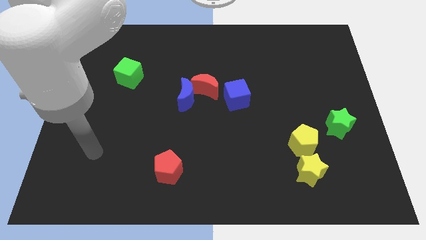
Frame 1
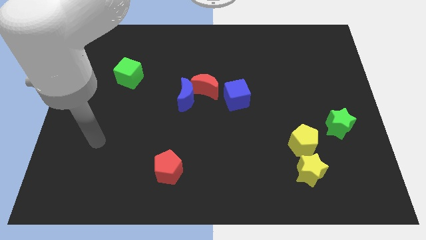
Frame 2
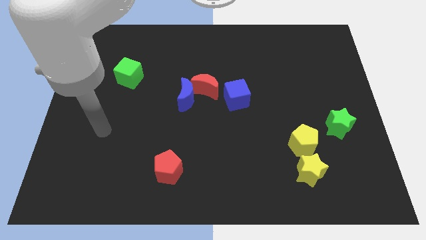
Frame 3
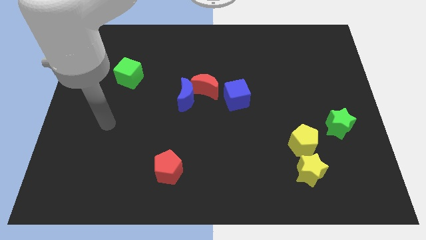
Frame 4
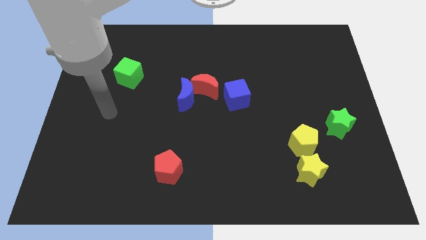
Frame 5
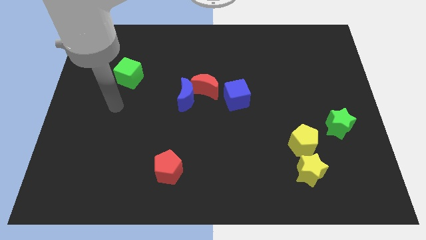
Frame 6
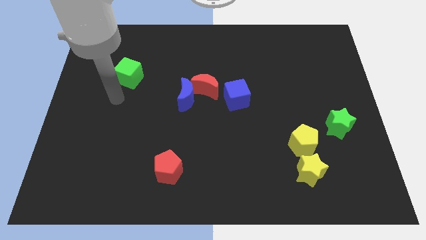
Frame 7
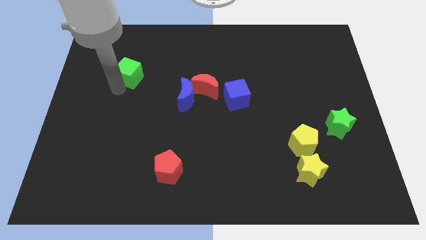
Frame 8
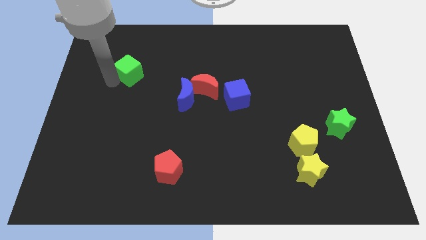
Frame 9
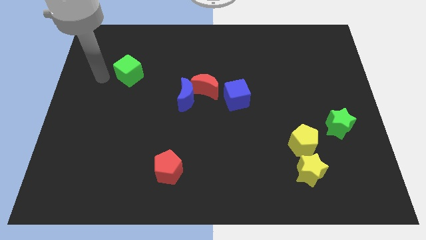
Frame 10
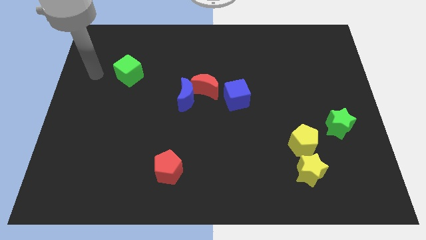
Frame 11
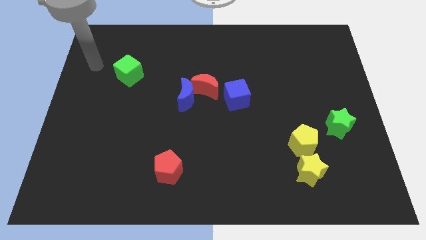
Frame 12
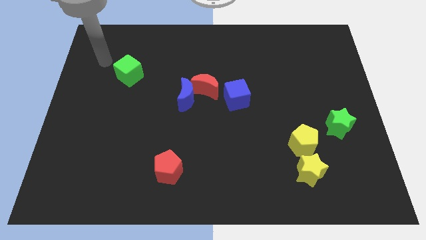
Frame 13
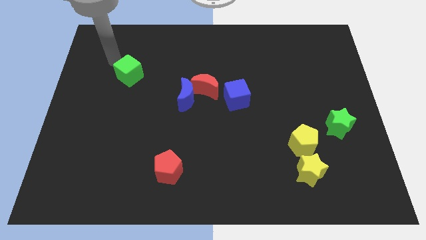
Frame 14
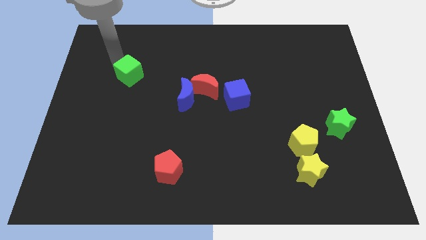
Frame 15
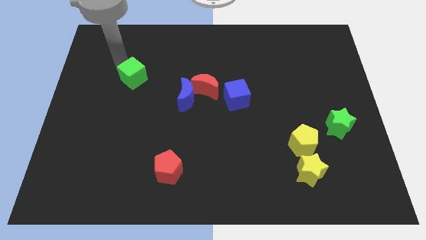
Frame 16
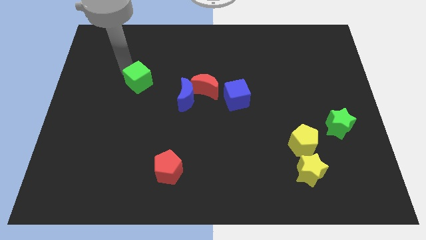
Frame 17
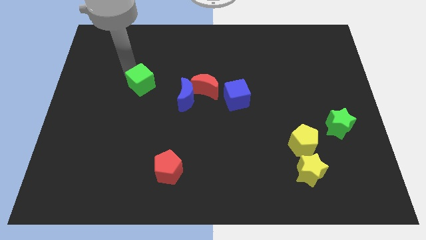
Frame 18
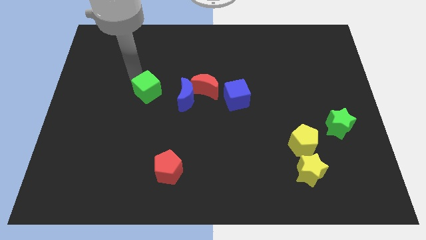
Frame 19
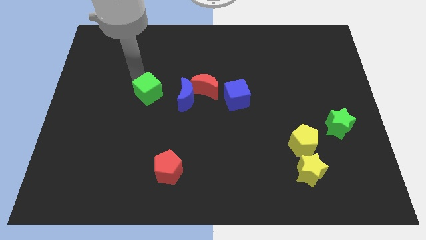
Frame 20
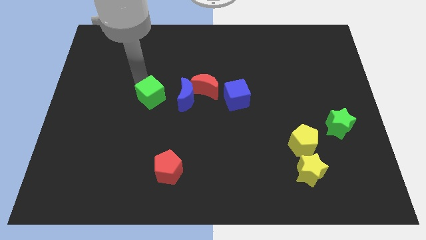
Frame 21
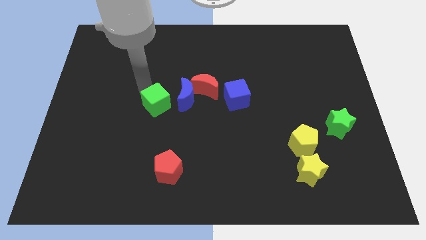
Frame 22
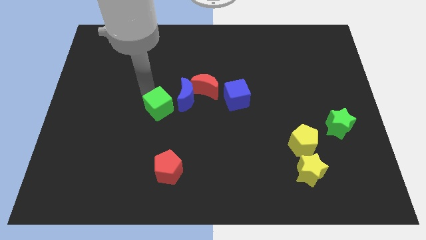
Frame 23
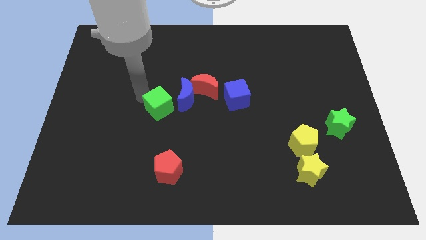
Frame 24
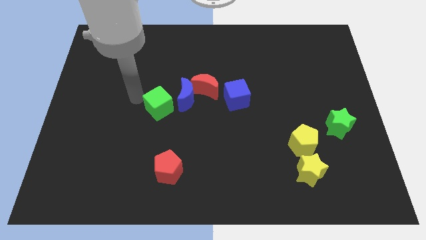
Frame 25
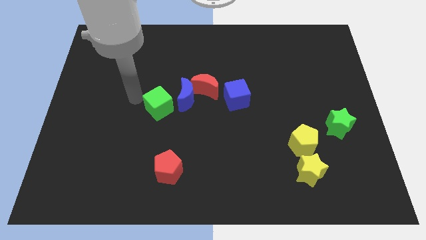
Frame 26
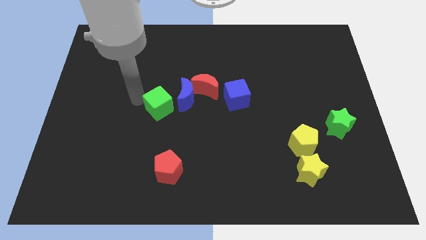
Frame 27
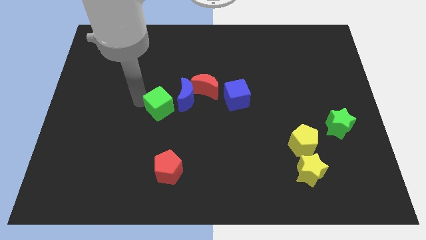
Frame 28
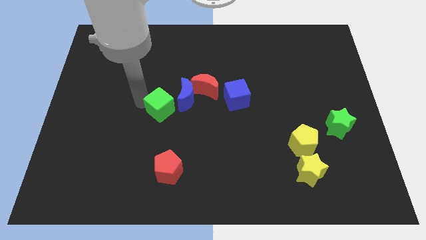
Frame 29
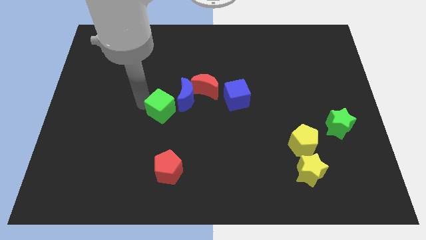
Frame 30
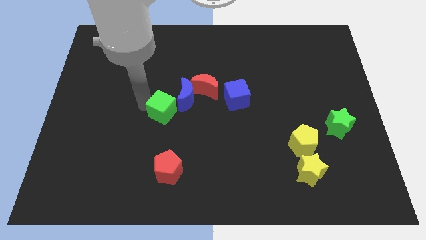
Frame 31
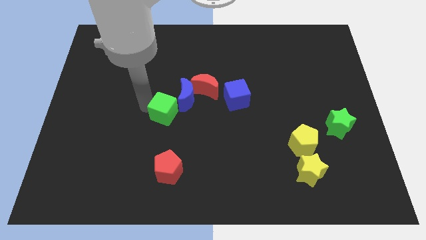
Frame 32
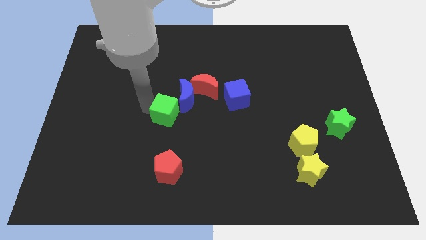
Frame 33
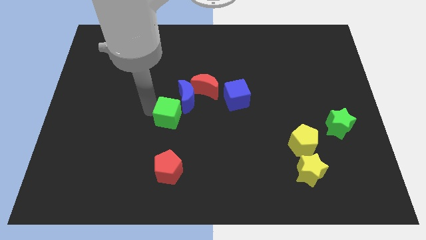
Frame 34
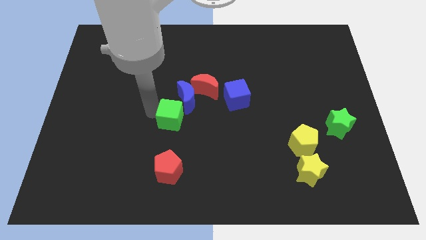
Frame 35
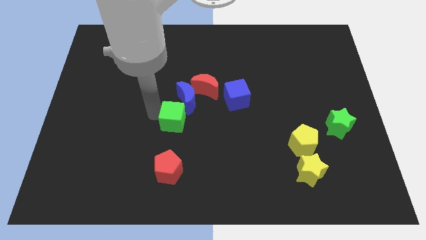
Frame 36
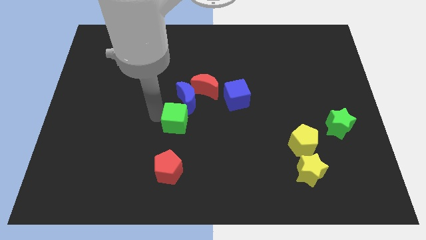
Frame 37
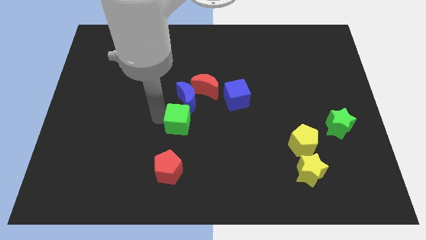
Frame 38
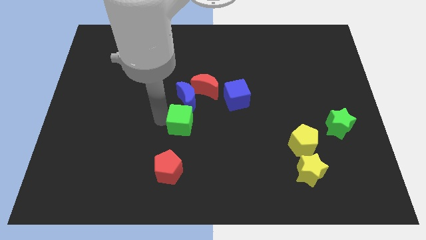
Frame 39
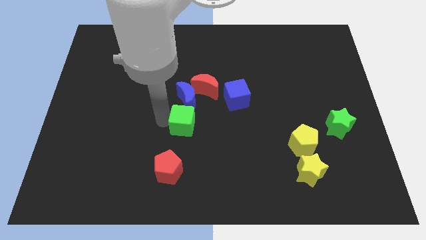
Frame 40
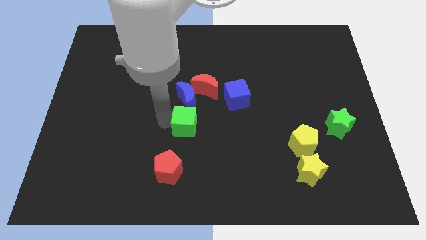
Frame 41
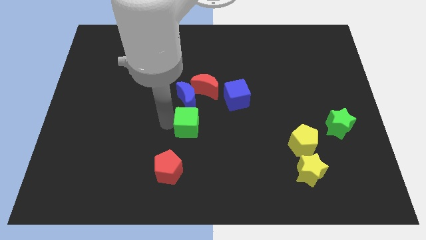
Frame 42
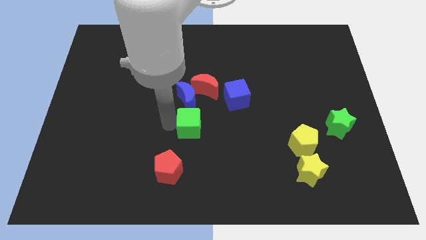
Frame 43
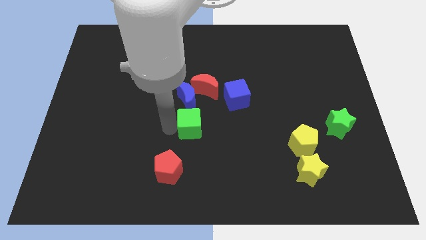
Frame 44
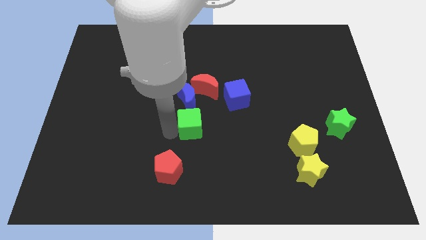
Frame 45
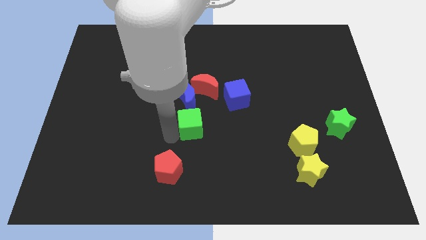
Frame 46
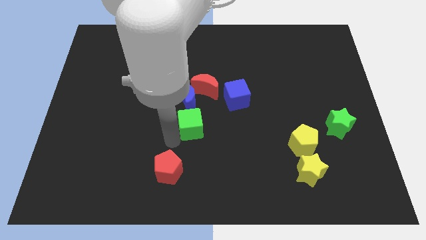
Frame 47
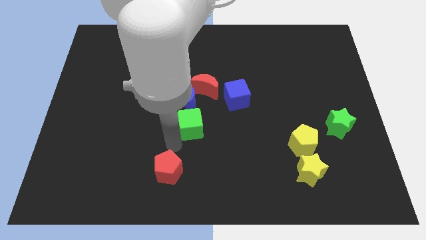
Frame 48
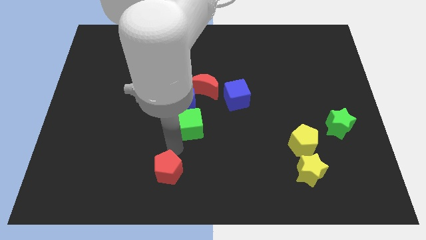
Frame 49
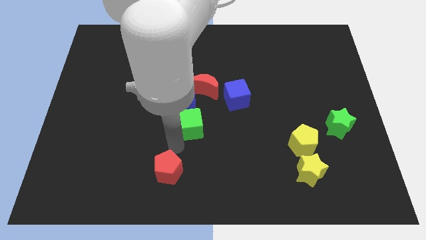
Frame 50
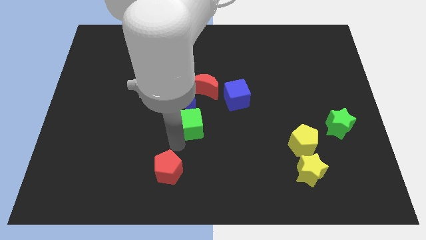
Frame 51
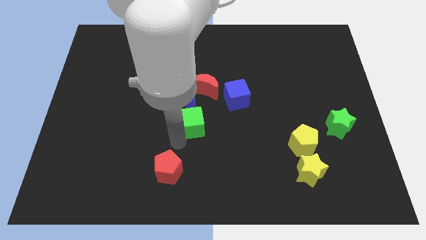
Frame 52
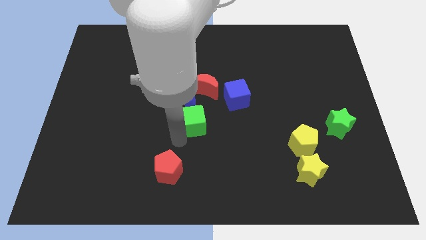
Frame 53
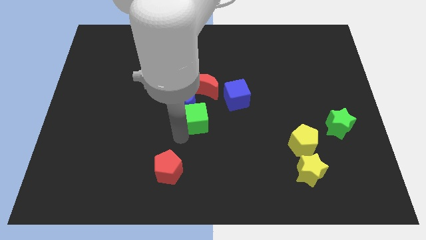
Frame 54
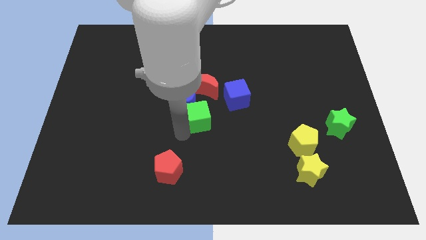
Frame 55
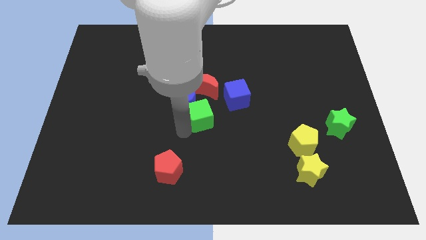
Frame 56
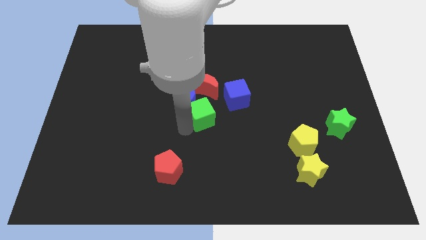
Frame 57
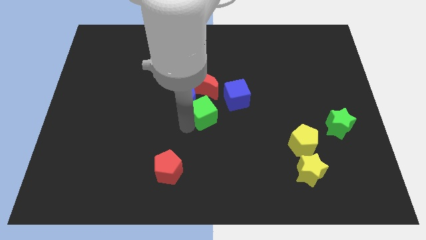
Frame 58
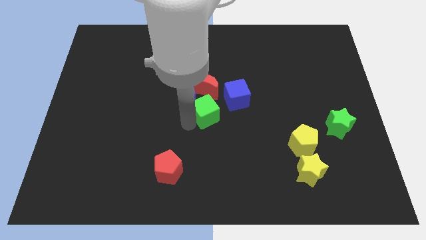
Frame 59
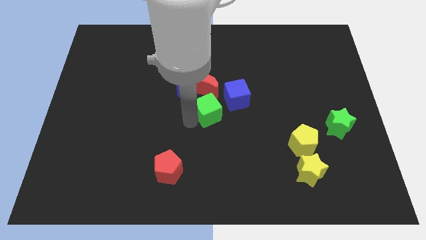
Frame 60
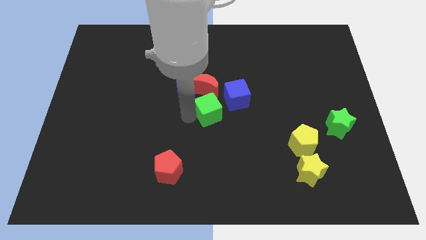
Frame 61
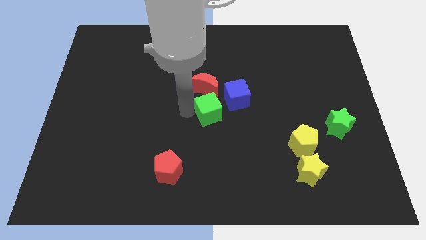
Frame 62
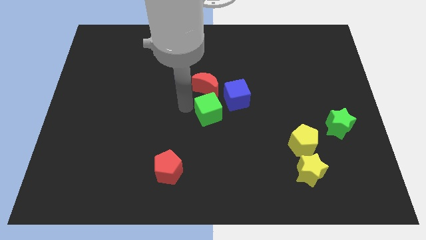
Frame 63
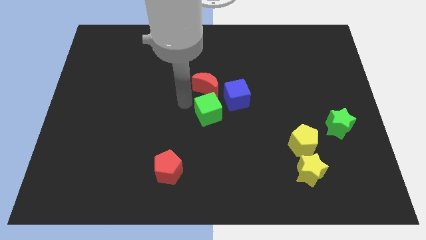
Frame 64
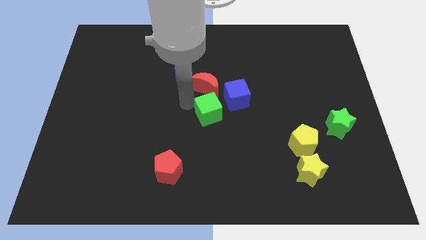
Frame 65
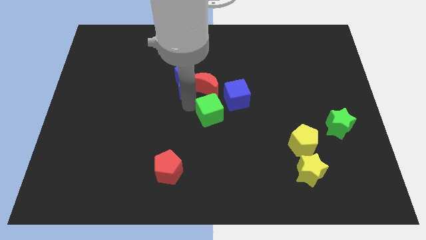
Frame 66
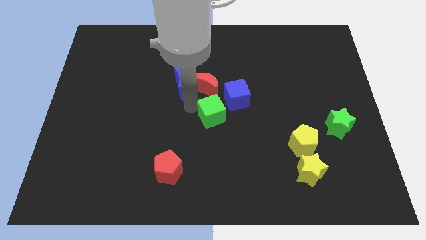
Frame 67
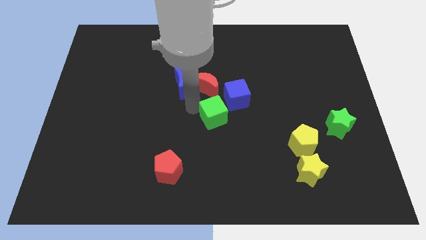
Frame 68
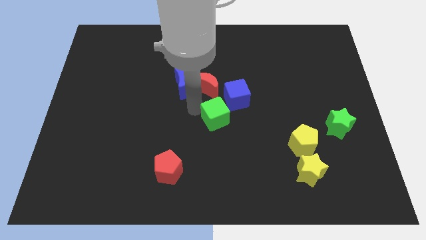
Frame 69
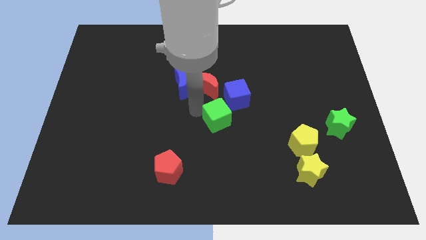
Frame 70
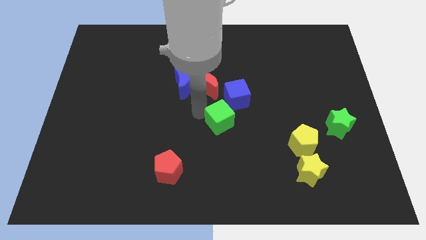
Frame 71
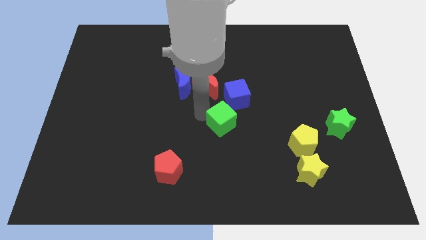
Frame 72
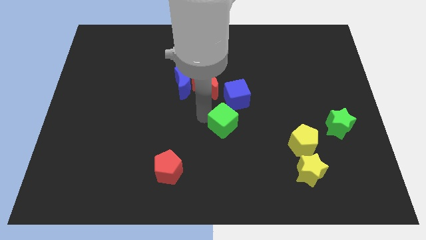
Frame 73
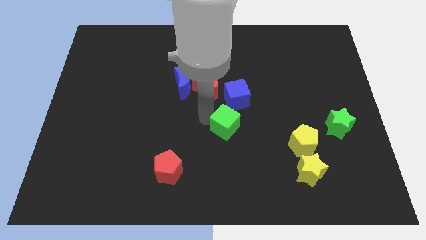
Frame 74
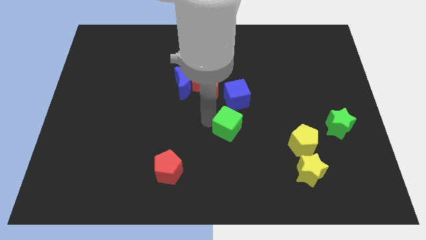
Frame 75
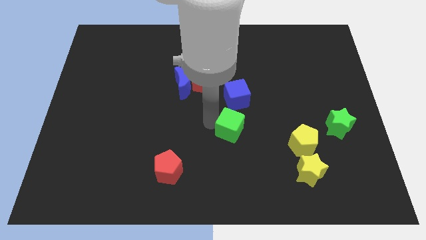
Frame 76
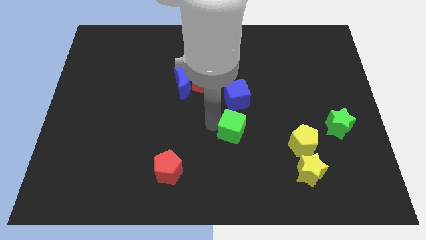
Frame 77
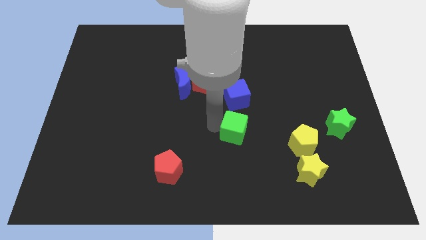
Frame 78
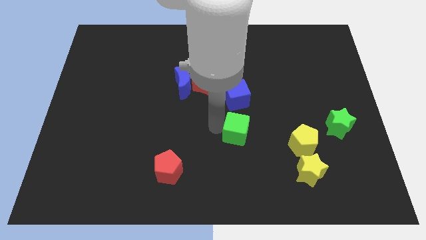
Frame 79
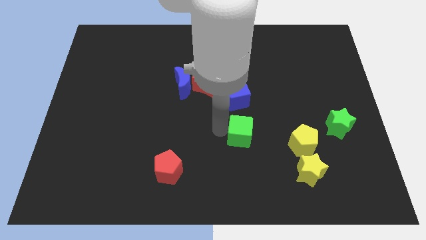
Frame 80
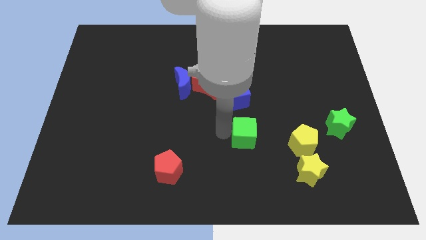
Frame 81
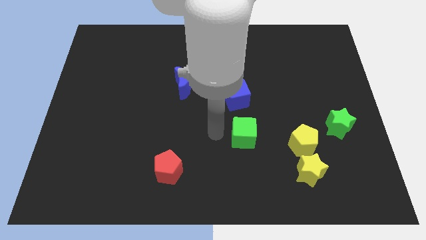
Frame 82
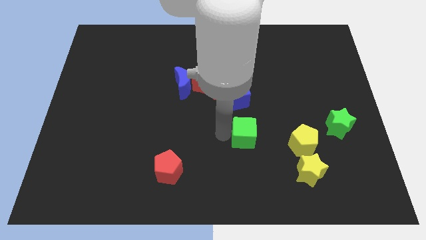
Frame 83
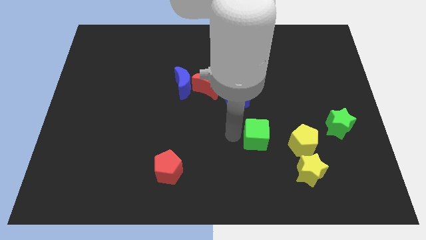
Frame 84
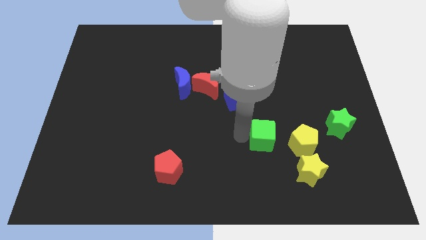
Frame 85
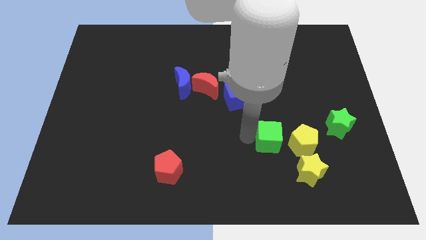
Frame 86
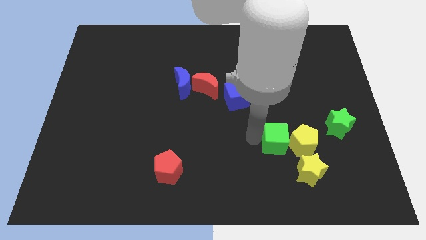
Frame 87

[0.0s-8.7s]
slide the green cube close to the yellow pentagon
